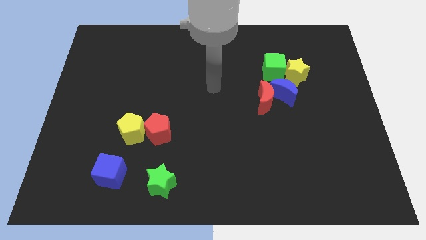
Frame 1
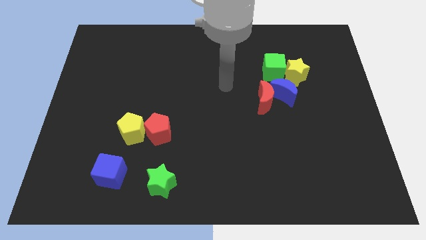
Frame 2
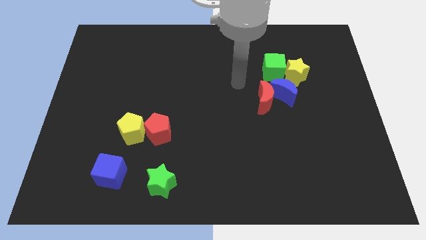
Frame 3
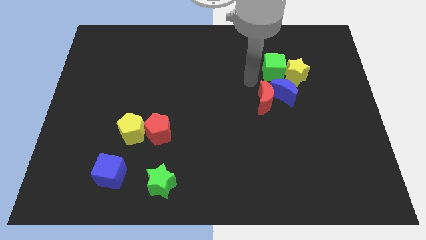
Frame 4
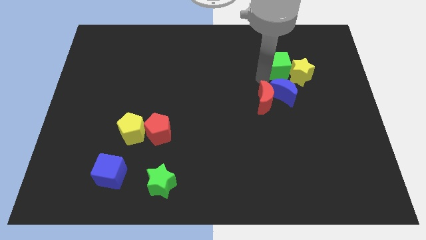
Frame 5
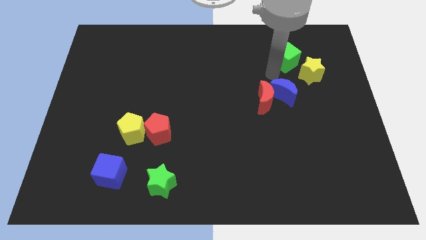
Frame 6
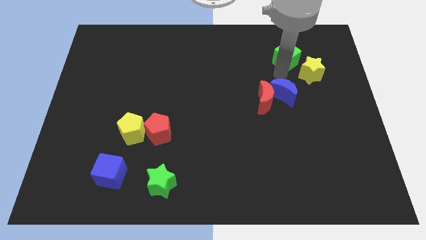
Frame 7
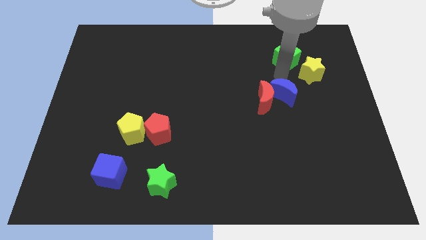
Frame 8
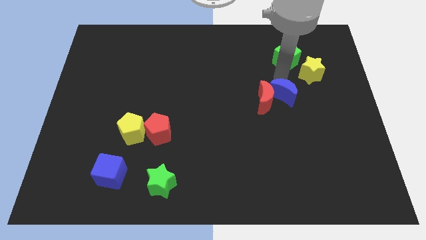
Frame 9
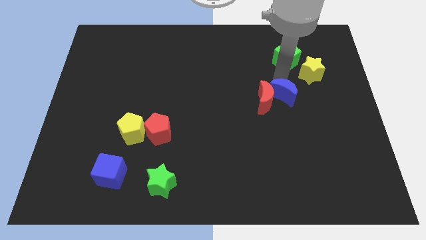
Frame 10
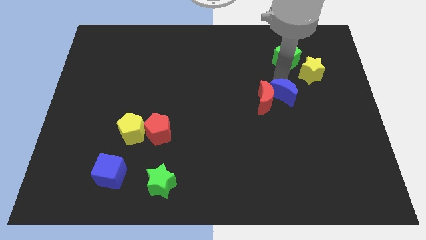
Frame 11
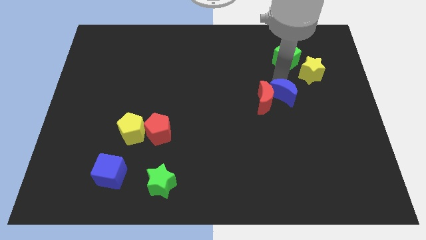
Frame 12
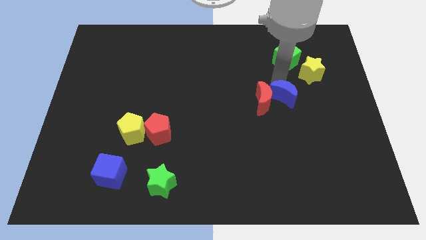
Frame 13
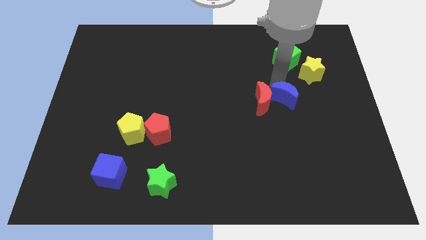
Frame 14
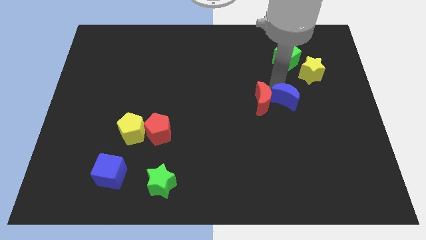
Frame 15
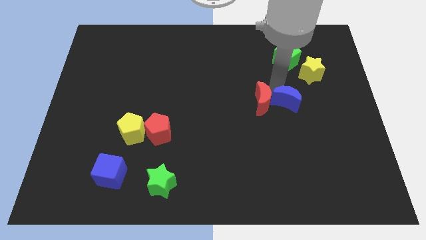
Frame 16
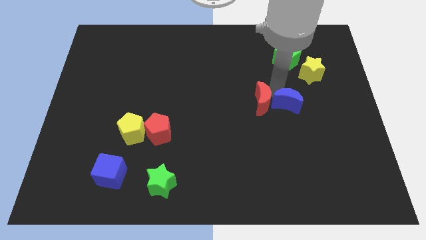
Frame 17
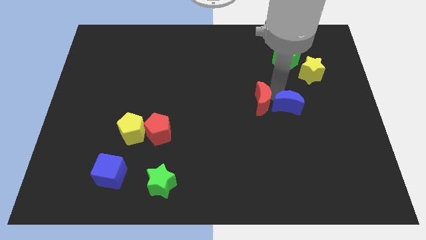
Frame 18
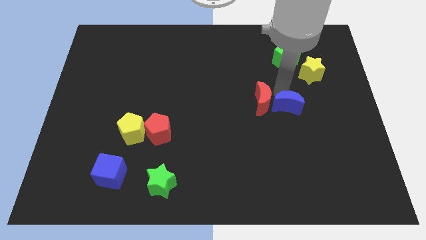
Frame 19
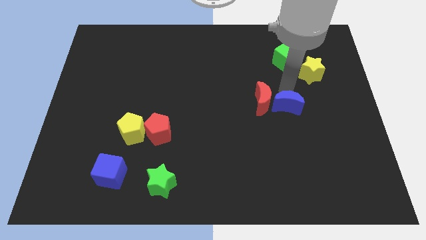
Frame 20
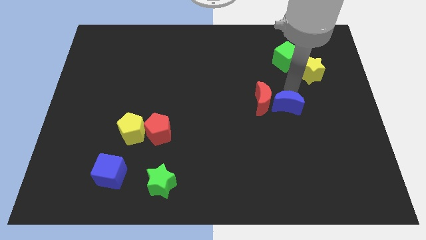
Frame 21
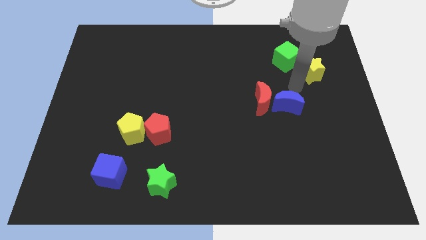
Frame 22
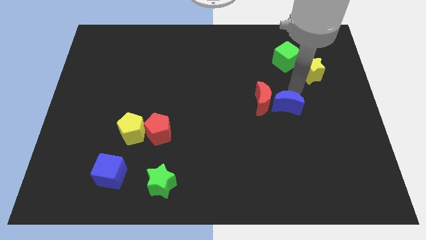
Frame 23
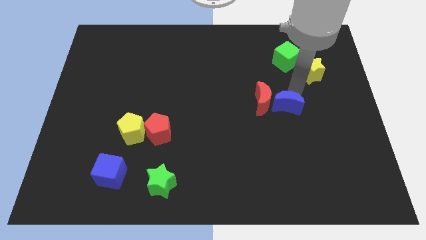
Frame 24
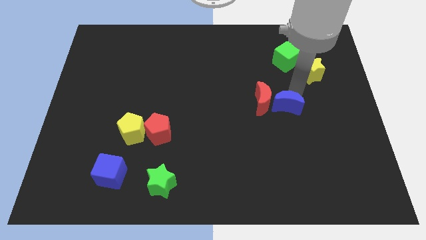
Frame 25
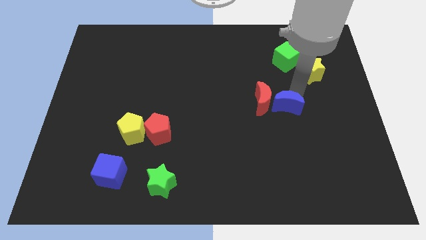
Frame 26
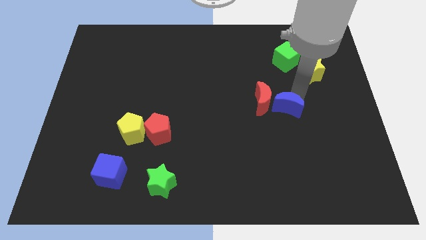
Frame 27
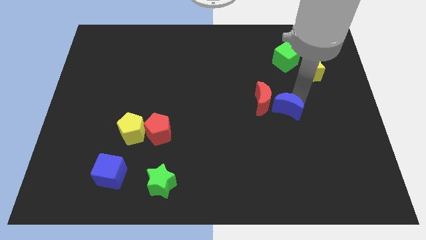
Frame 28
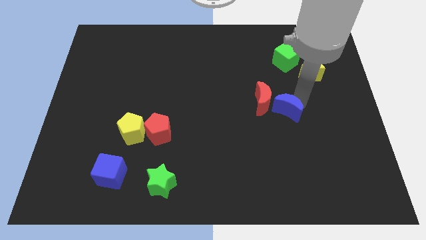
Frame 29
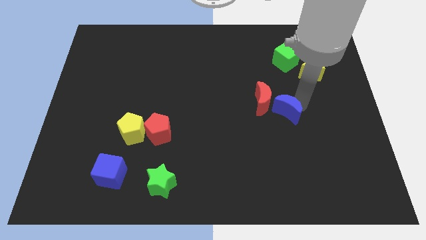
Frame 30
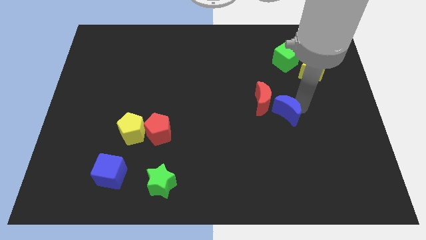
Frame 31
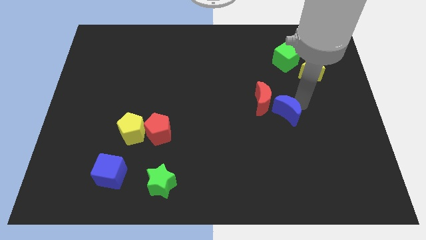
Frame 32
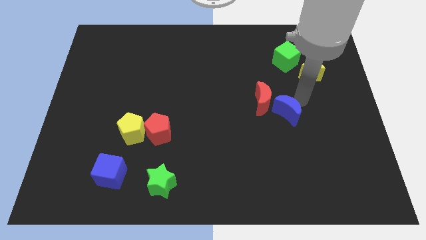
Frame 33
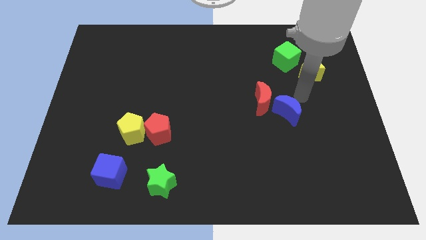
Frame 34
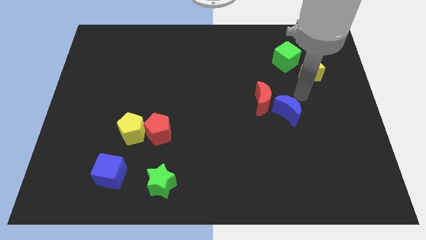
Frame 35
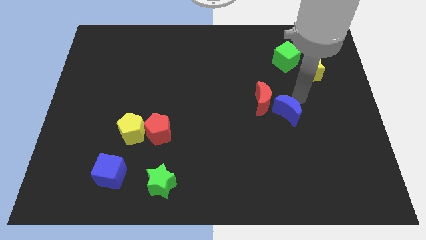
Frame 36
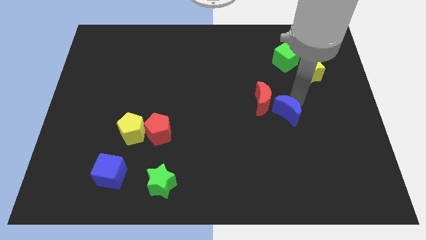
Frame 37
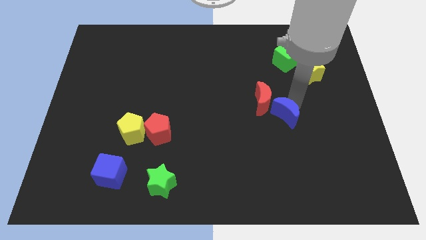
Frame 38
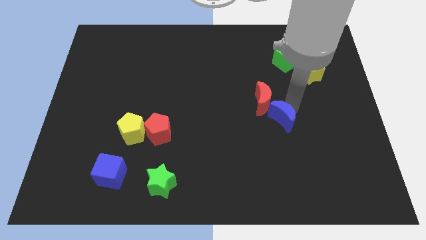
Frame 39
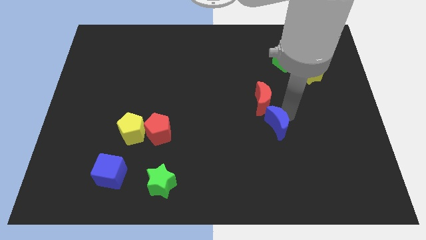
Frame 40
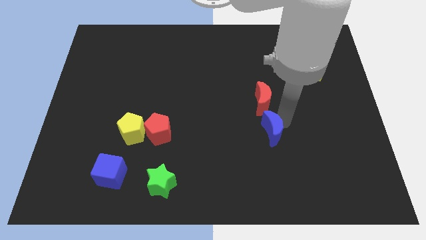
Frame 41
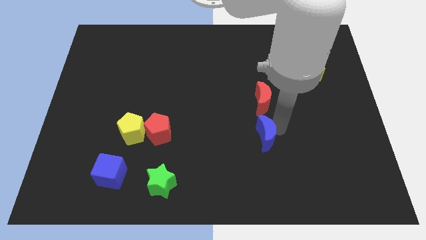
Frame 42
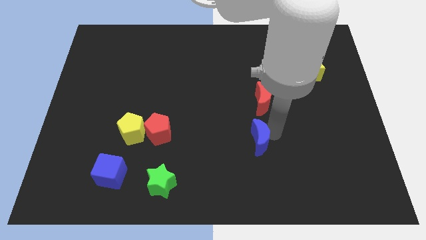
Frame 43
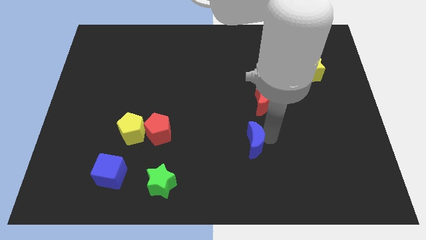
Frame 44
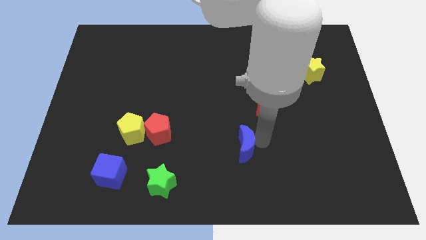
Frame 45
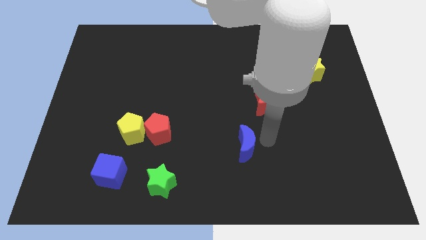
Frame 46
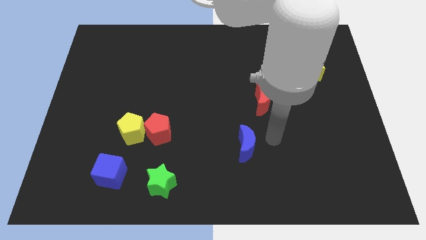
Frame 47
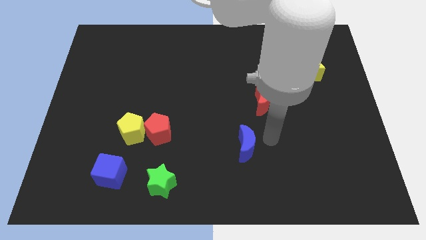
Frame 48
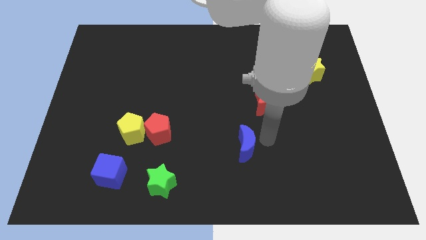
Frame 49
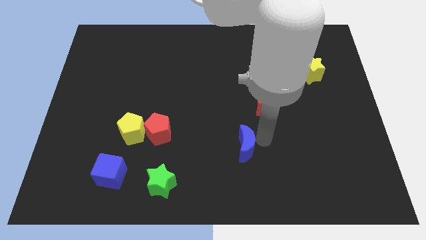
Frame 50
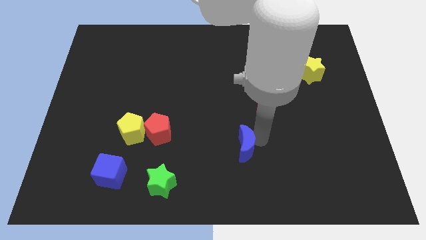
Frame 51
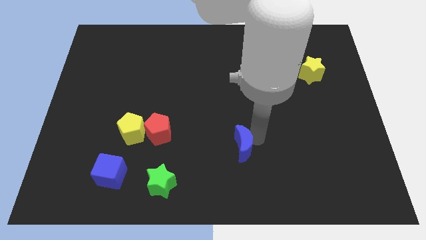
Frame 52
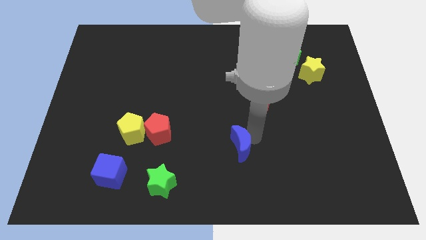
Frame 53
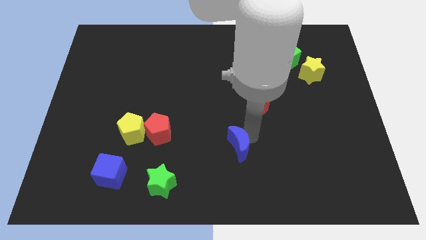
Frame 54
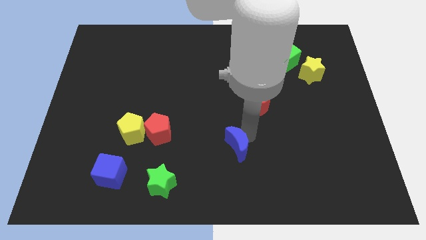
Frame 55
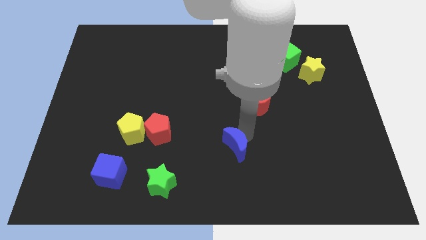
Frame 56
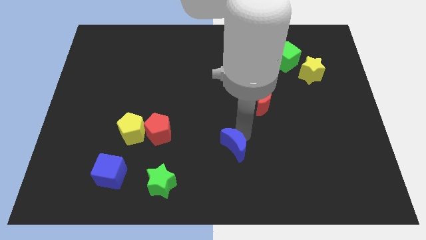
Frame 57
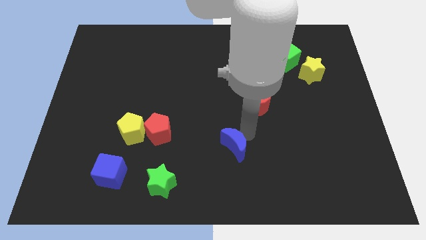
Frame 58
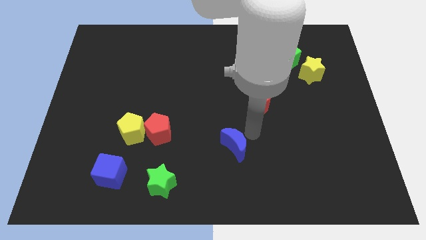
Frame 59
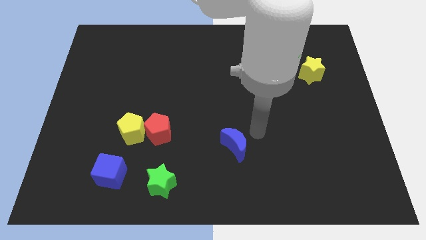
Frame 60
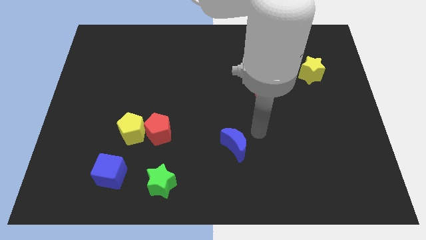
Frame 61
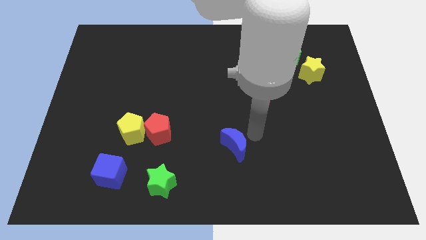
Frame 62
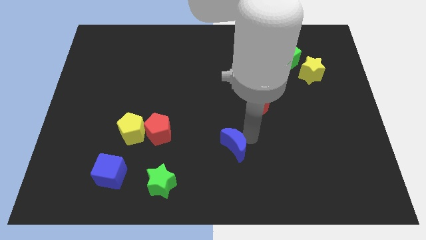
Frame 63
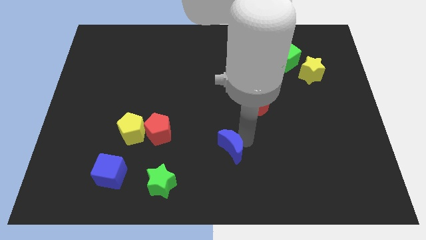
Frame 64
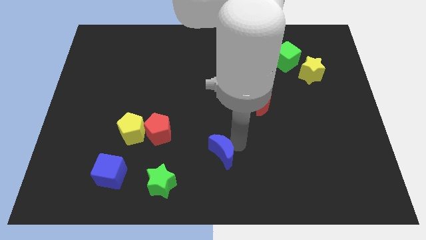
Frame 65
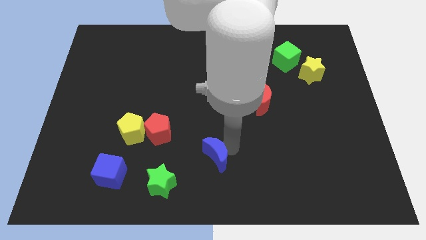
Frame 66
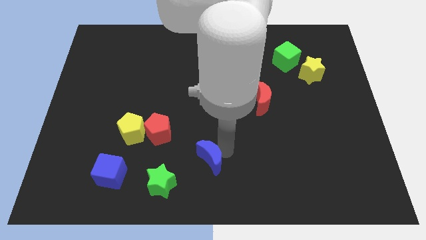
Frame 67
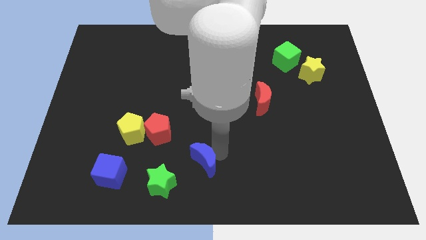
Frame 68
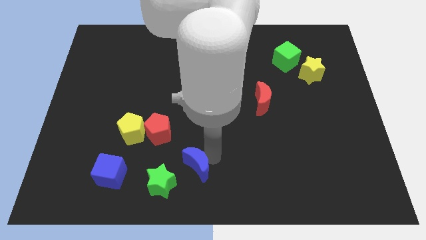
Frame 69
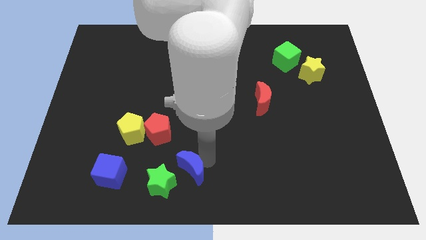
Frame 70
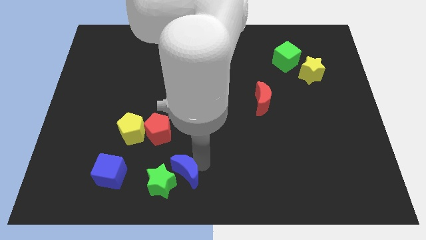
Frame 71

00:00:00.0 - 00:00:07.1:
move the blue moon towards the green star

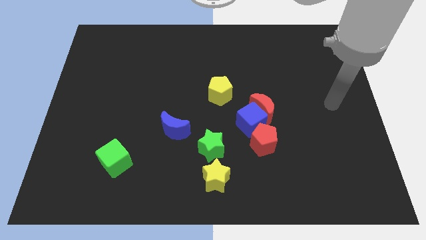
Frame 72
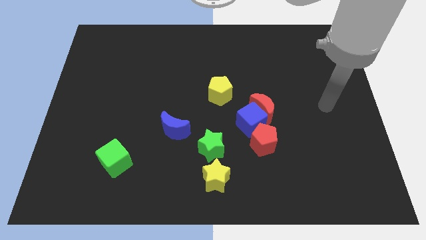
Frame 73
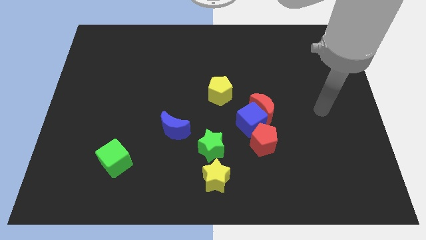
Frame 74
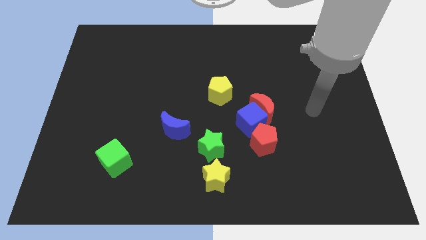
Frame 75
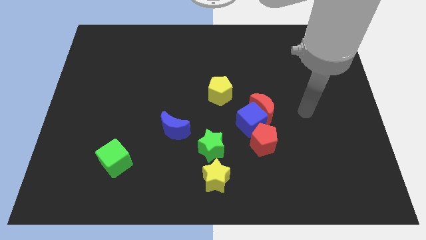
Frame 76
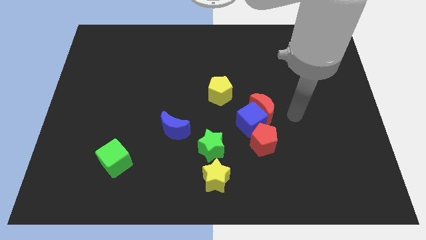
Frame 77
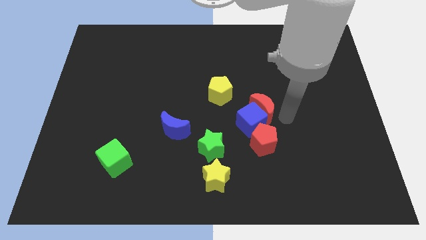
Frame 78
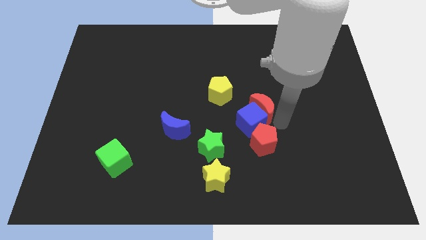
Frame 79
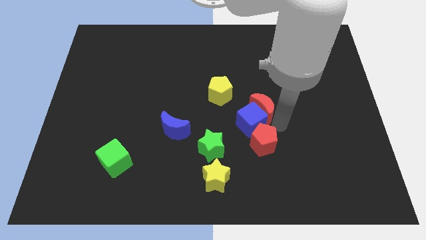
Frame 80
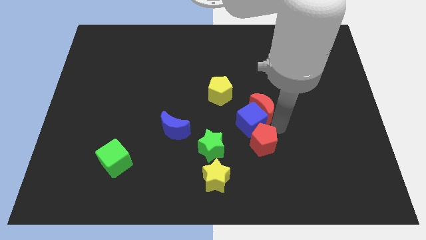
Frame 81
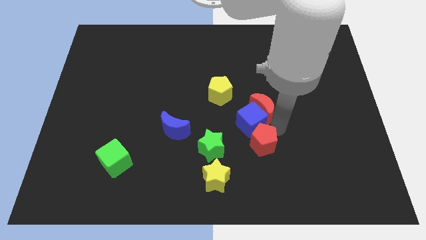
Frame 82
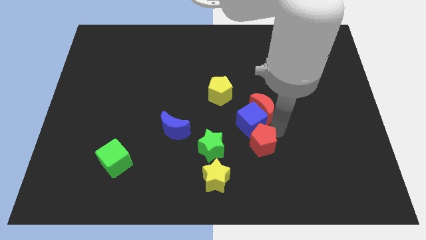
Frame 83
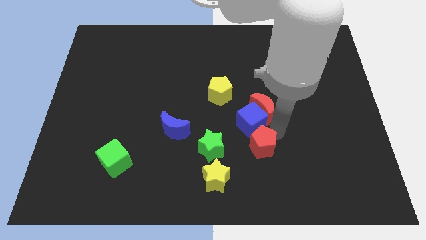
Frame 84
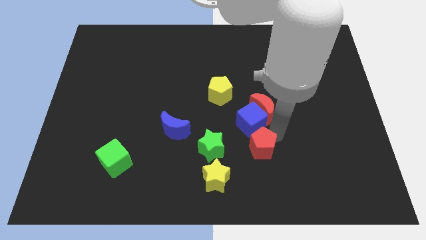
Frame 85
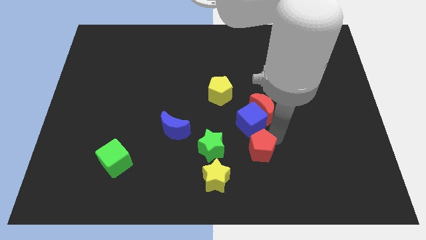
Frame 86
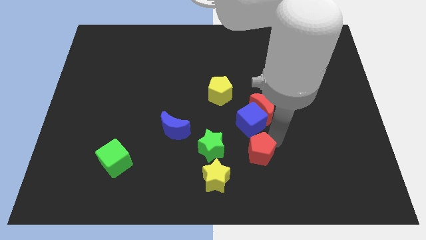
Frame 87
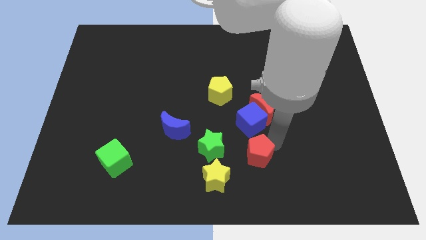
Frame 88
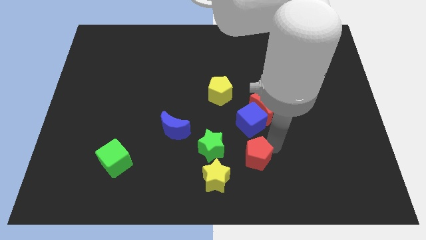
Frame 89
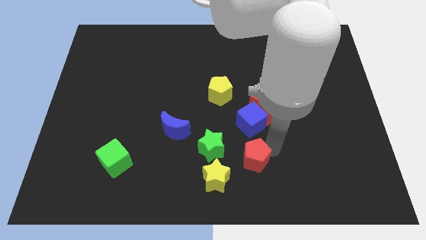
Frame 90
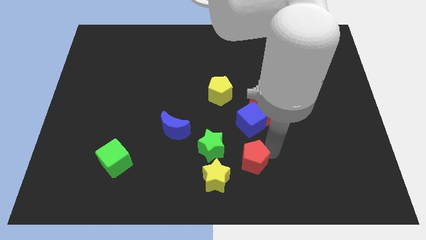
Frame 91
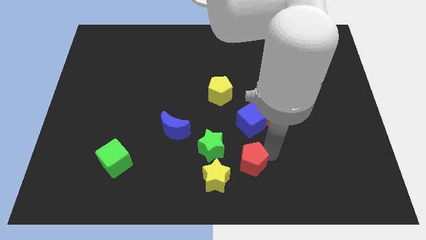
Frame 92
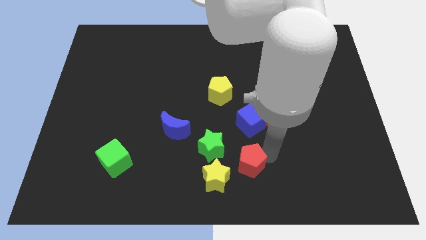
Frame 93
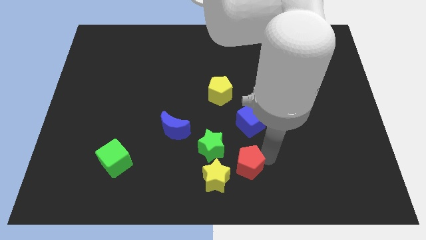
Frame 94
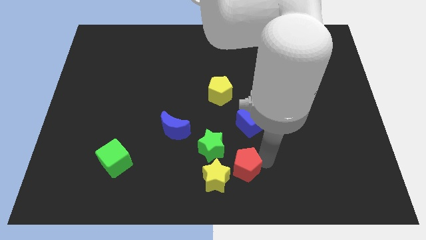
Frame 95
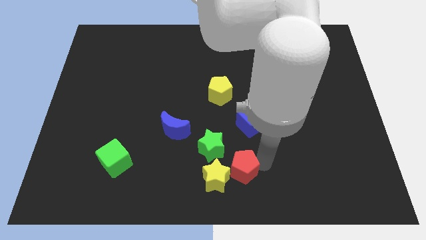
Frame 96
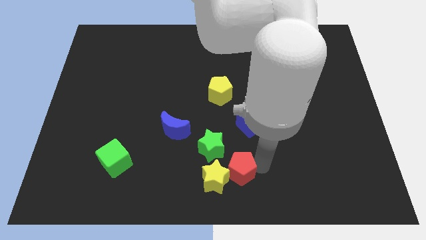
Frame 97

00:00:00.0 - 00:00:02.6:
move the red pentagon towards the yellow star
